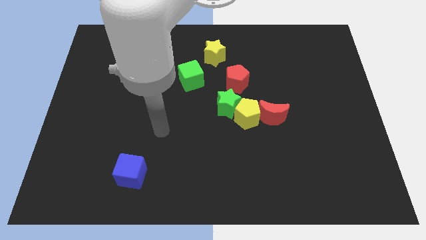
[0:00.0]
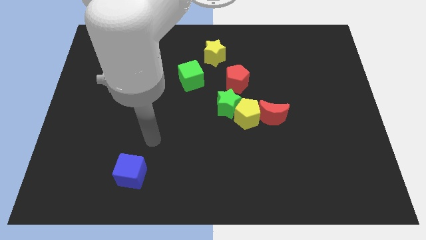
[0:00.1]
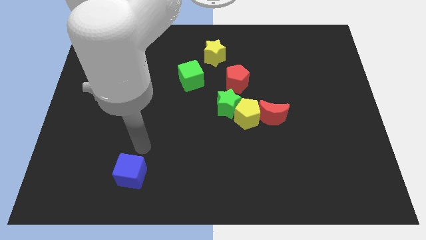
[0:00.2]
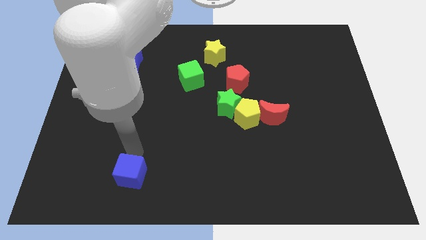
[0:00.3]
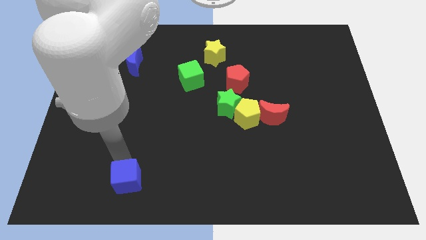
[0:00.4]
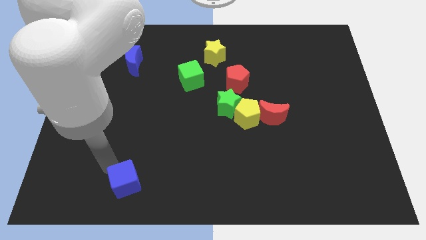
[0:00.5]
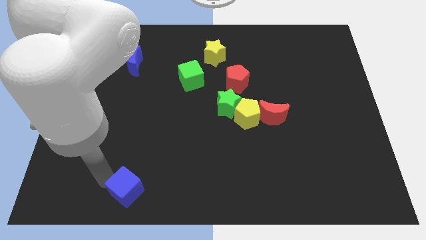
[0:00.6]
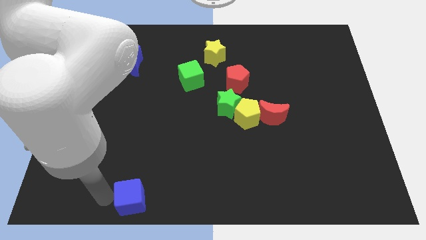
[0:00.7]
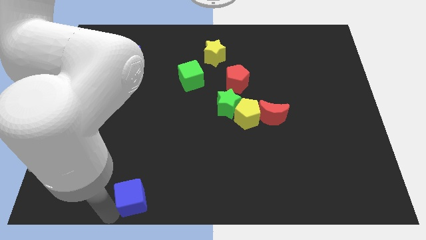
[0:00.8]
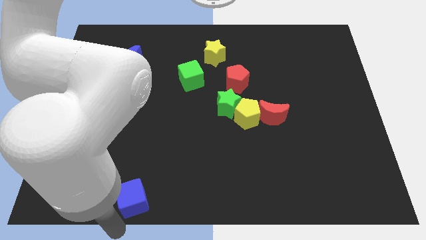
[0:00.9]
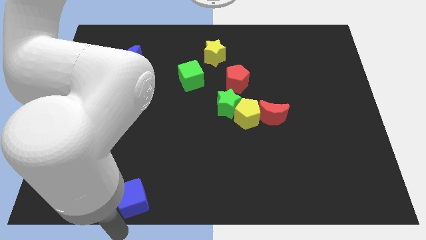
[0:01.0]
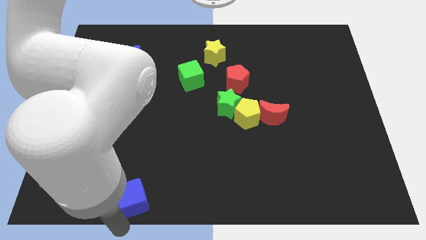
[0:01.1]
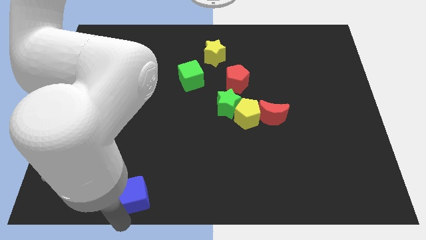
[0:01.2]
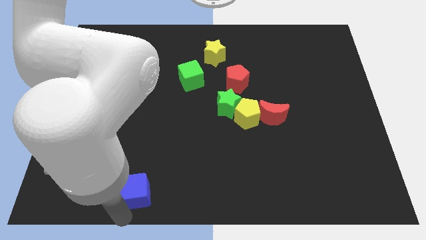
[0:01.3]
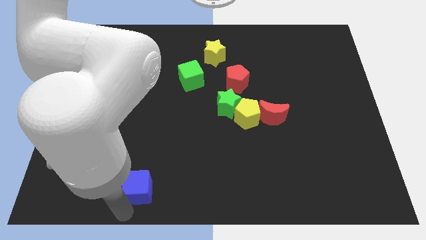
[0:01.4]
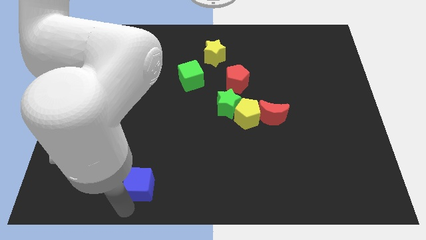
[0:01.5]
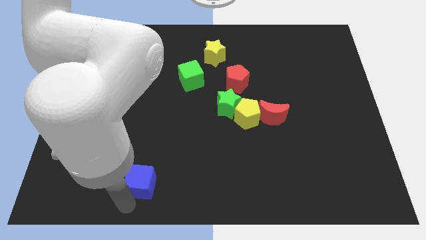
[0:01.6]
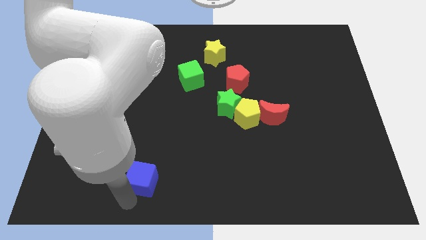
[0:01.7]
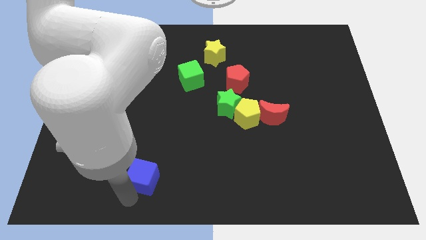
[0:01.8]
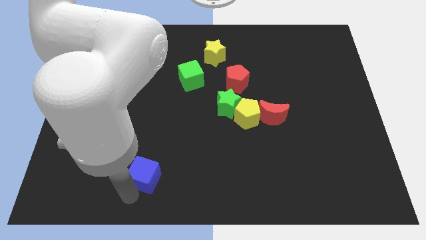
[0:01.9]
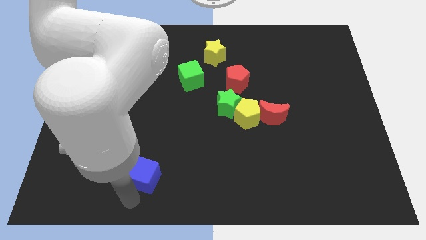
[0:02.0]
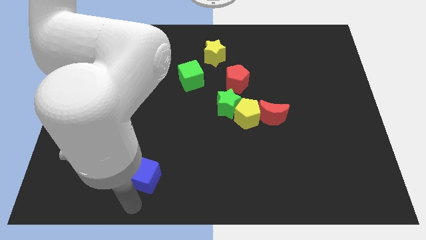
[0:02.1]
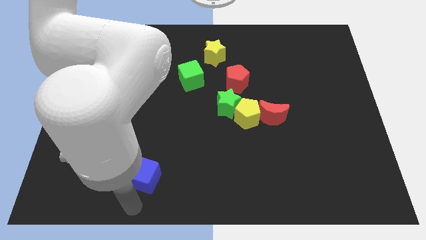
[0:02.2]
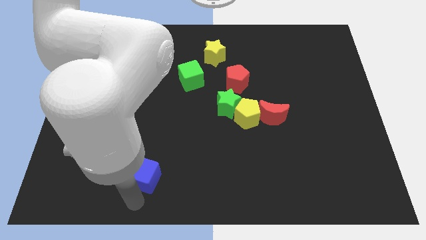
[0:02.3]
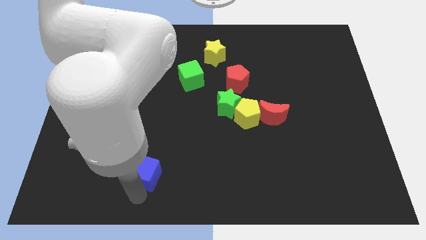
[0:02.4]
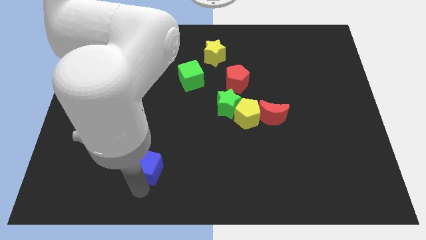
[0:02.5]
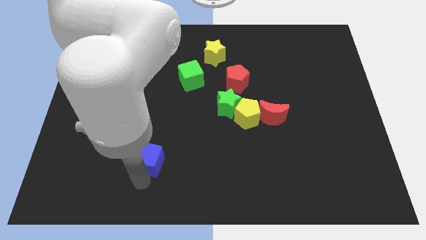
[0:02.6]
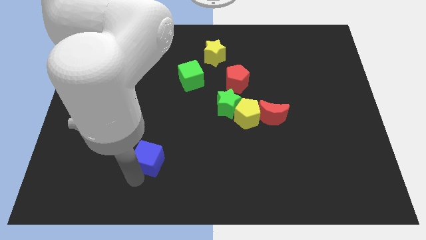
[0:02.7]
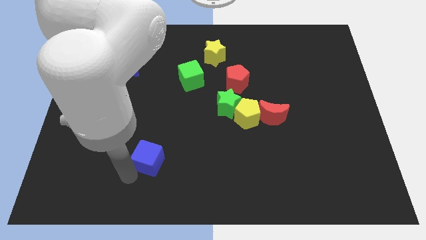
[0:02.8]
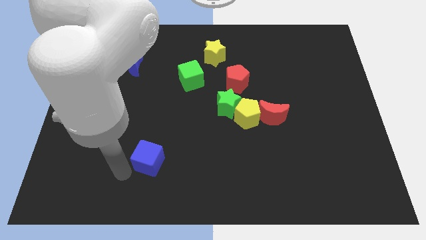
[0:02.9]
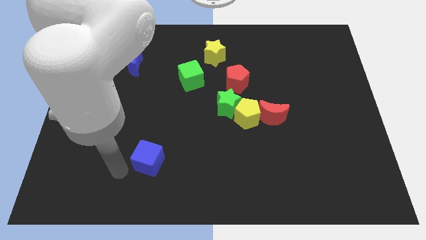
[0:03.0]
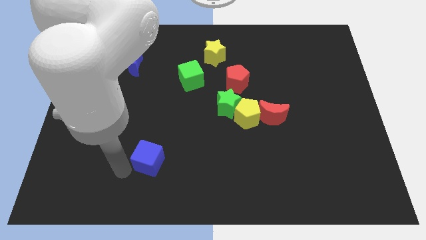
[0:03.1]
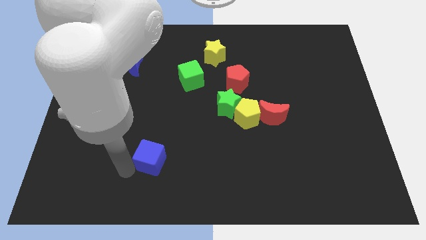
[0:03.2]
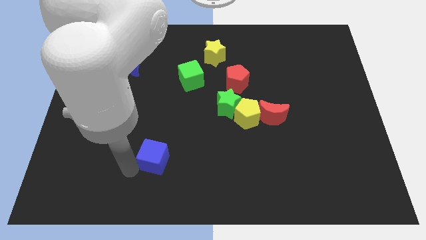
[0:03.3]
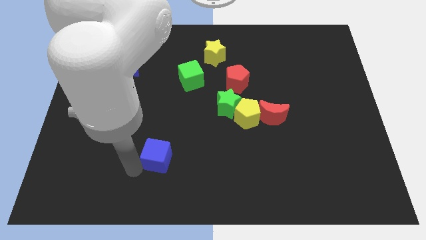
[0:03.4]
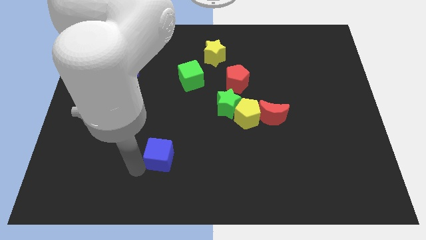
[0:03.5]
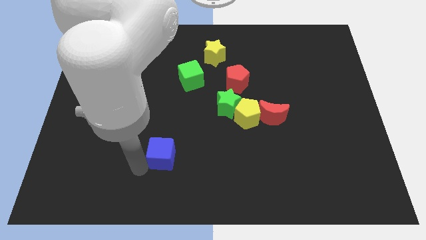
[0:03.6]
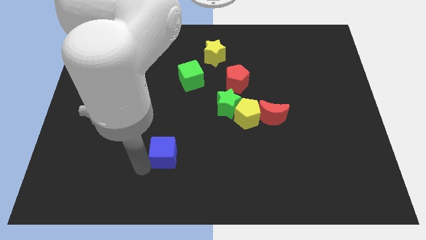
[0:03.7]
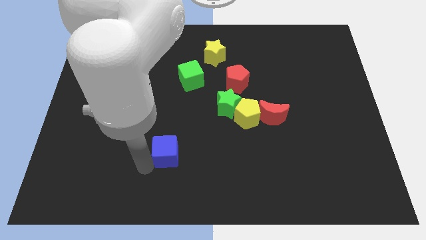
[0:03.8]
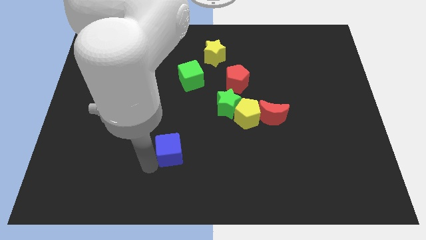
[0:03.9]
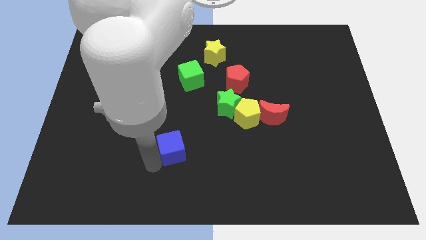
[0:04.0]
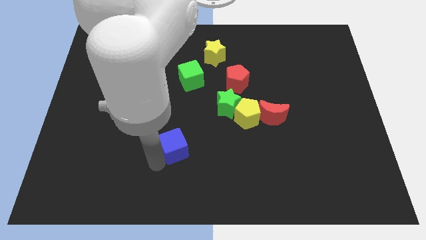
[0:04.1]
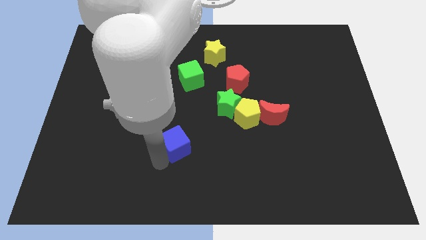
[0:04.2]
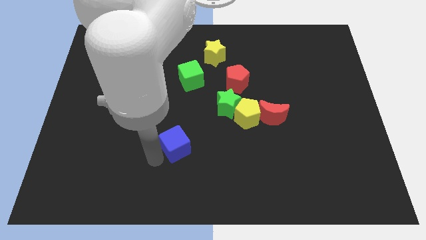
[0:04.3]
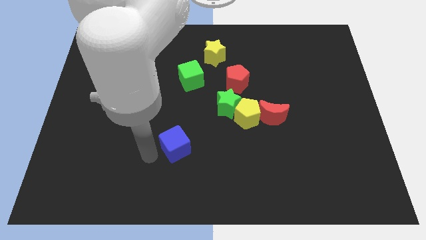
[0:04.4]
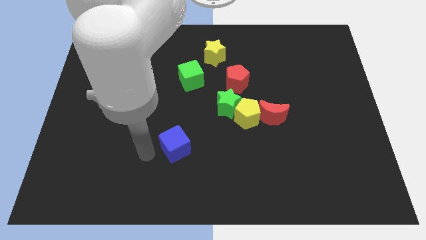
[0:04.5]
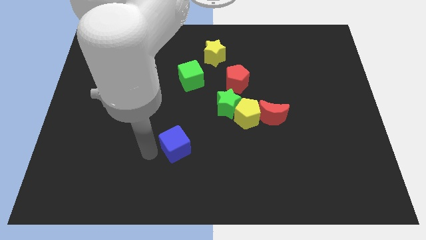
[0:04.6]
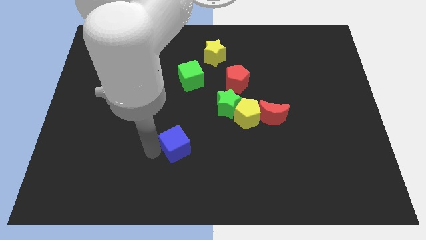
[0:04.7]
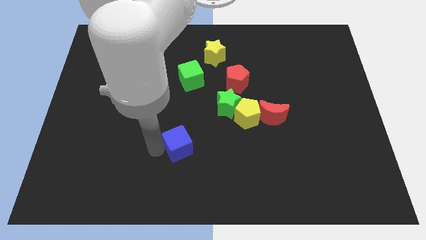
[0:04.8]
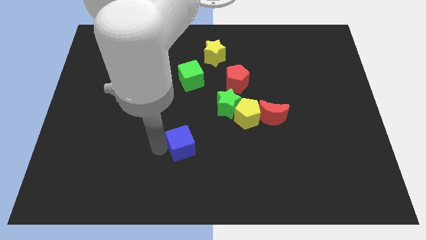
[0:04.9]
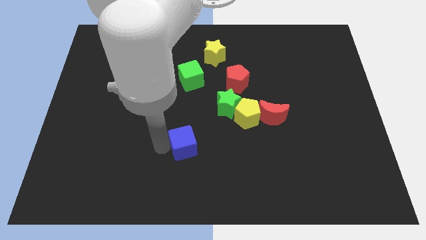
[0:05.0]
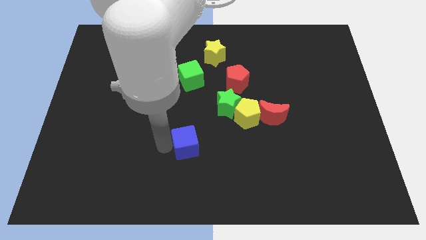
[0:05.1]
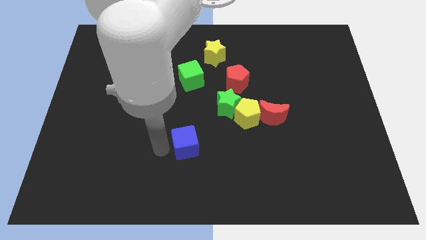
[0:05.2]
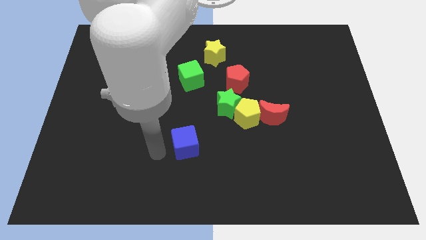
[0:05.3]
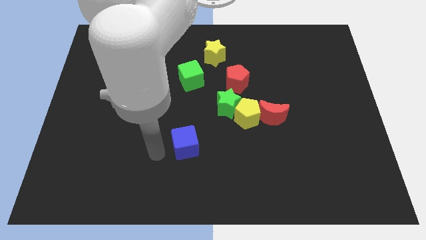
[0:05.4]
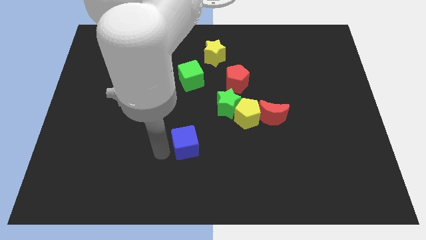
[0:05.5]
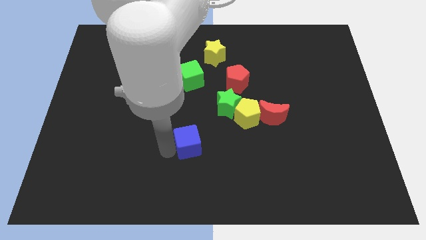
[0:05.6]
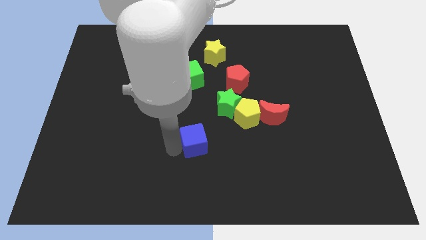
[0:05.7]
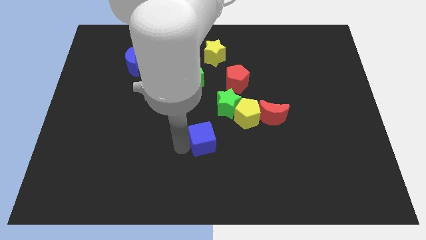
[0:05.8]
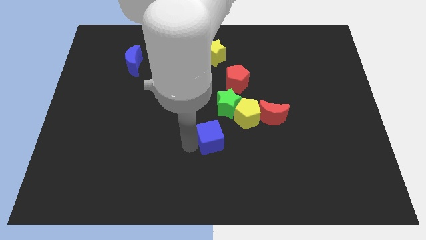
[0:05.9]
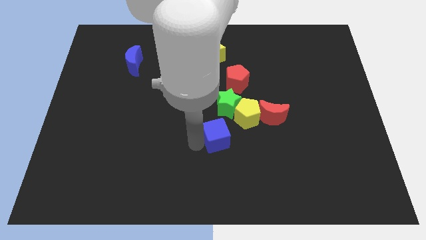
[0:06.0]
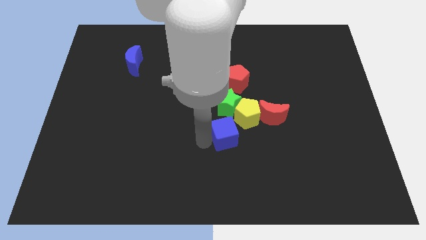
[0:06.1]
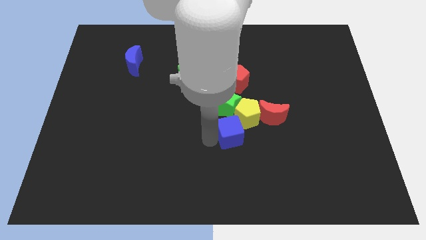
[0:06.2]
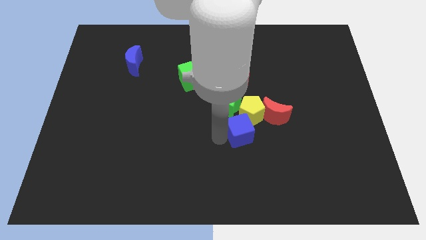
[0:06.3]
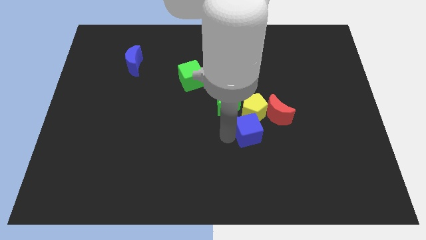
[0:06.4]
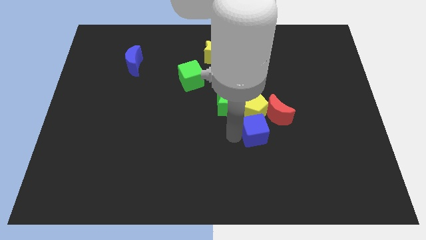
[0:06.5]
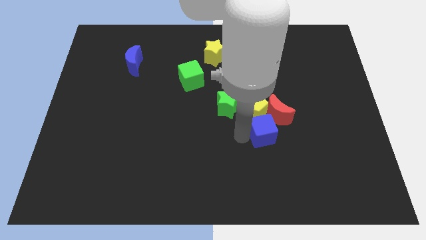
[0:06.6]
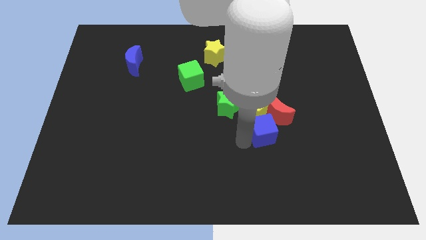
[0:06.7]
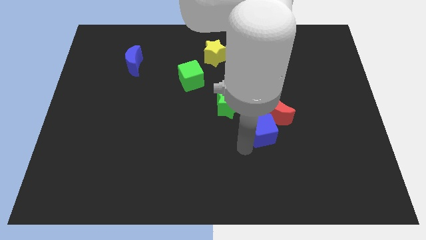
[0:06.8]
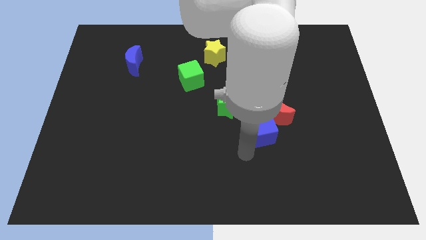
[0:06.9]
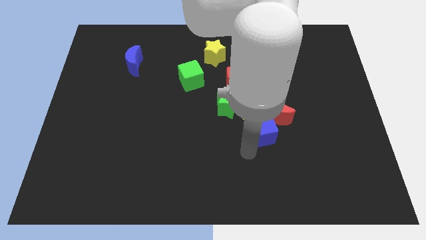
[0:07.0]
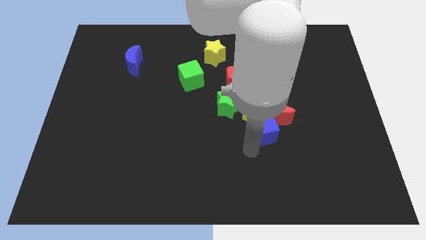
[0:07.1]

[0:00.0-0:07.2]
put the blue cube towards the red moon

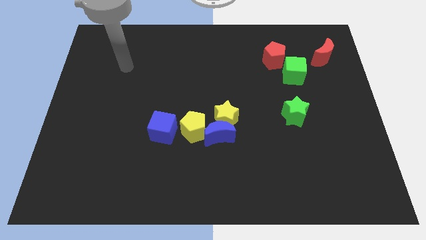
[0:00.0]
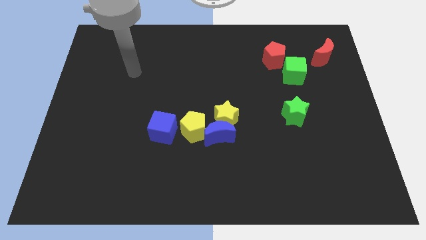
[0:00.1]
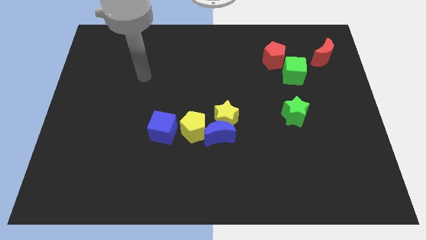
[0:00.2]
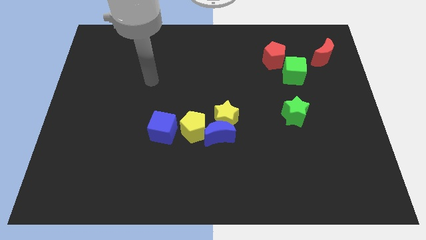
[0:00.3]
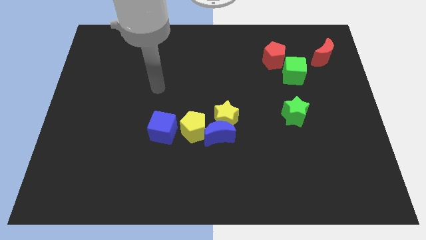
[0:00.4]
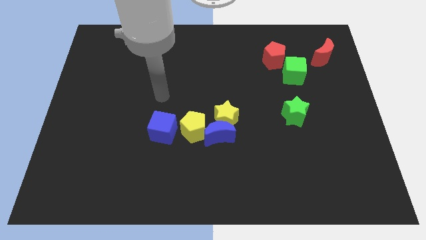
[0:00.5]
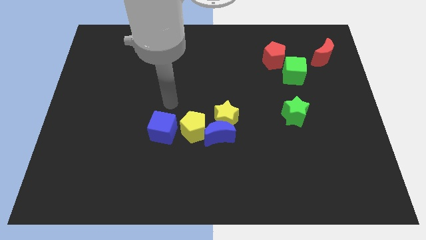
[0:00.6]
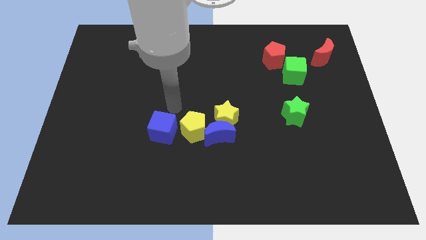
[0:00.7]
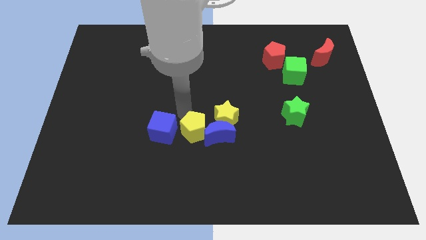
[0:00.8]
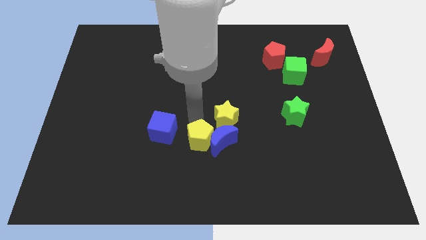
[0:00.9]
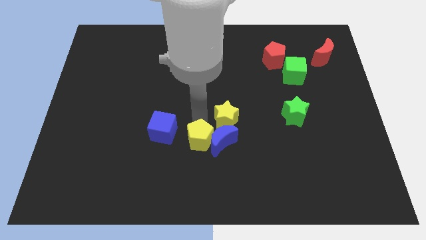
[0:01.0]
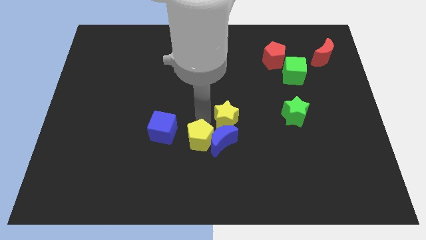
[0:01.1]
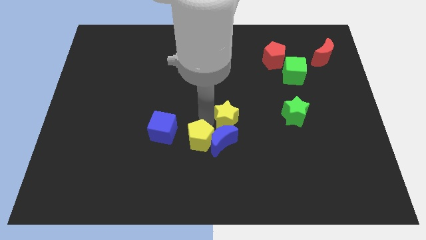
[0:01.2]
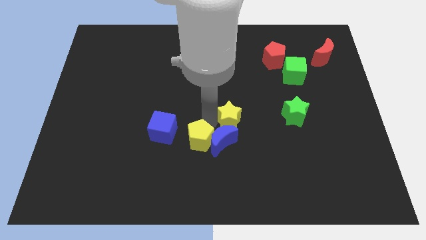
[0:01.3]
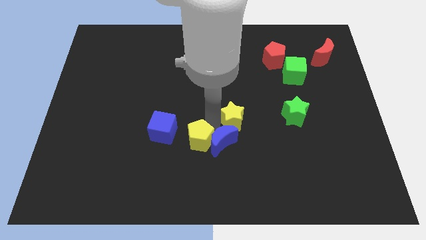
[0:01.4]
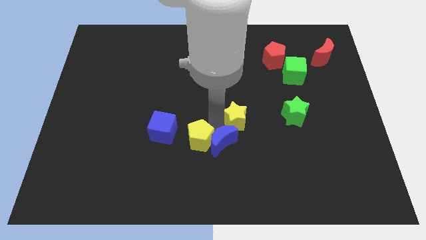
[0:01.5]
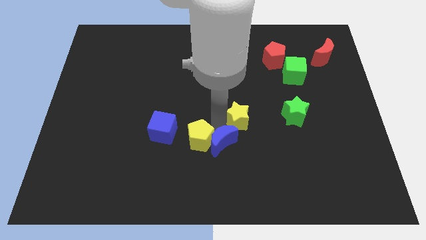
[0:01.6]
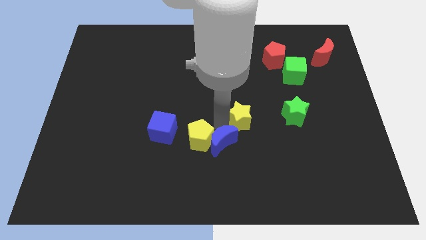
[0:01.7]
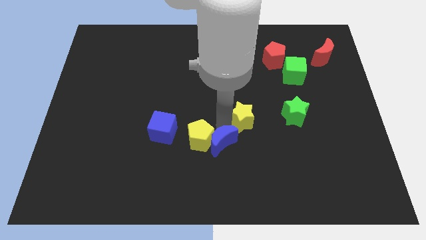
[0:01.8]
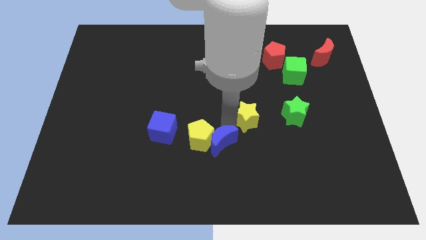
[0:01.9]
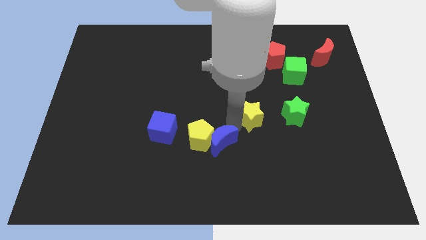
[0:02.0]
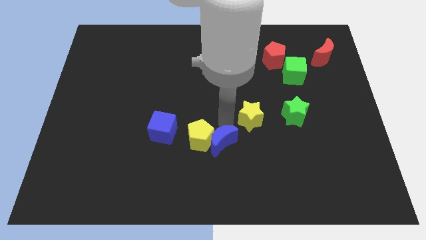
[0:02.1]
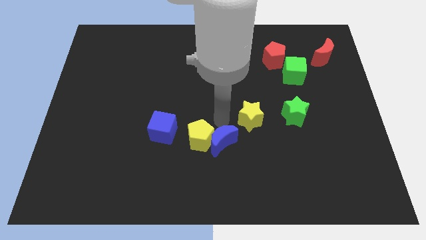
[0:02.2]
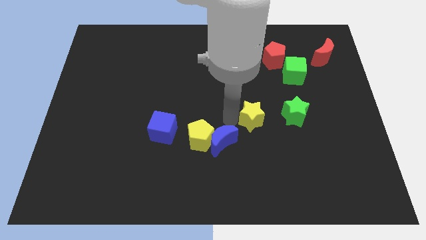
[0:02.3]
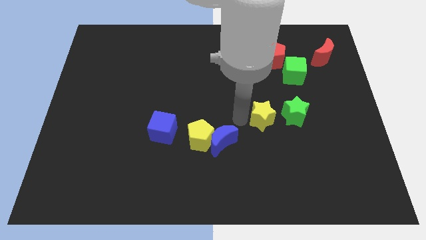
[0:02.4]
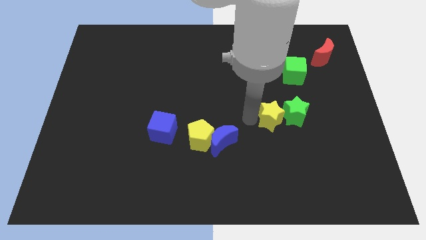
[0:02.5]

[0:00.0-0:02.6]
put the yellow star close to the green star
